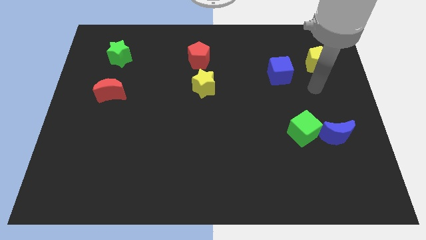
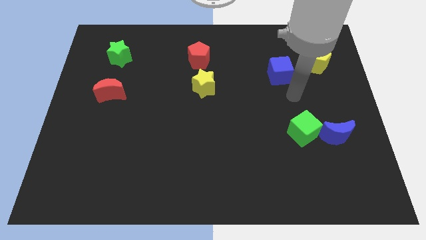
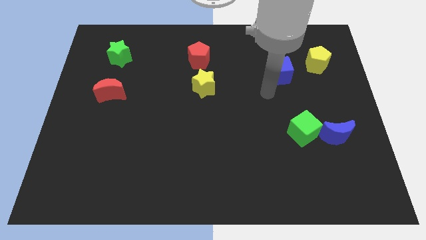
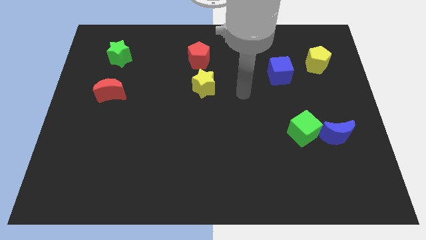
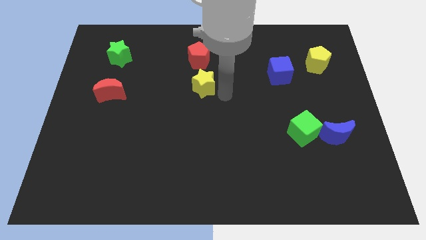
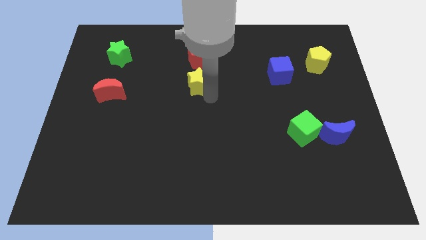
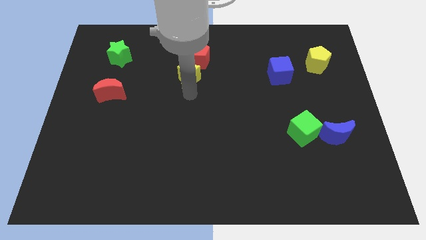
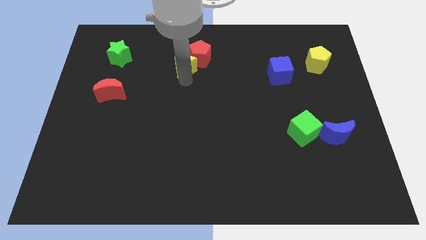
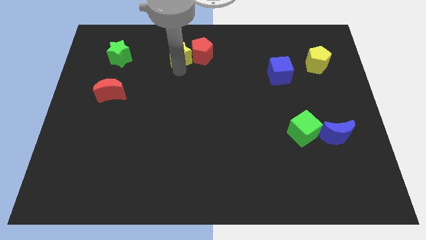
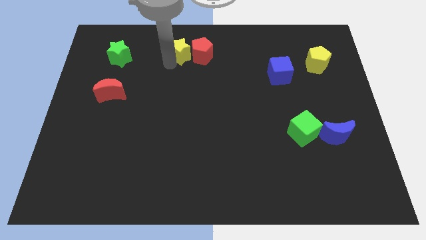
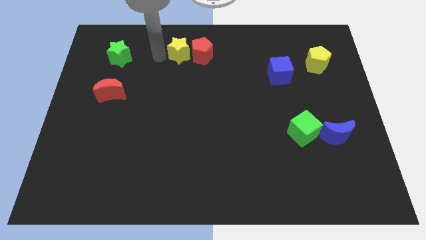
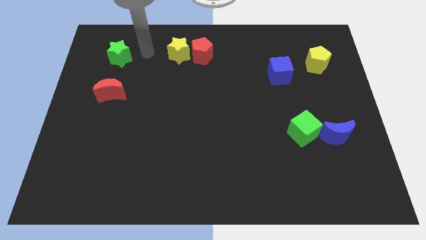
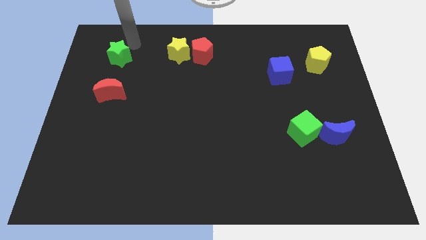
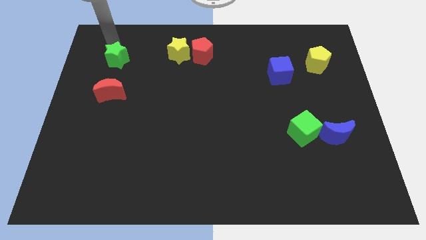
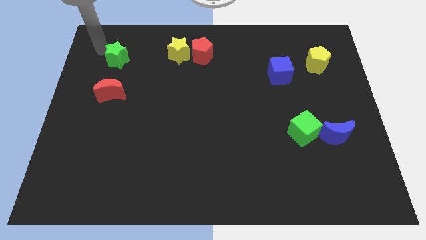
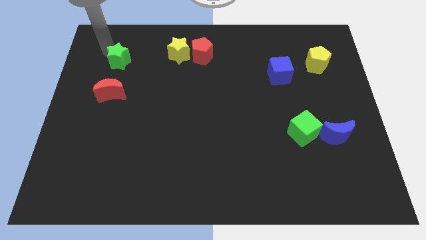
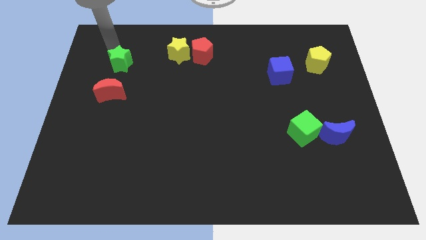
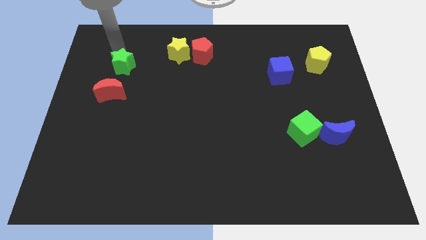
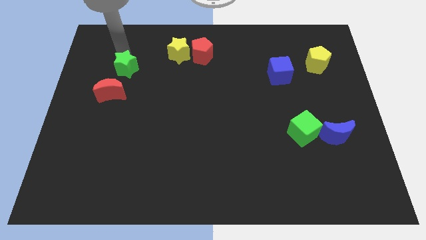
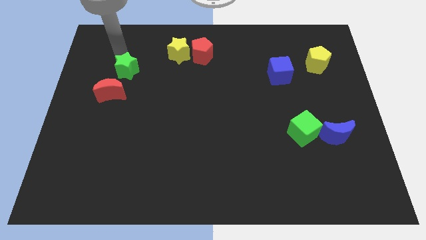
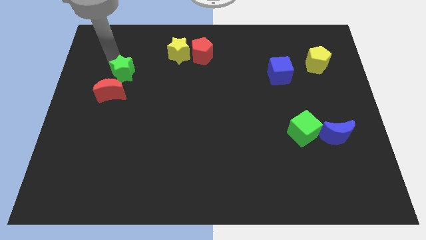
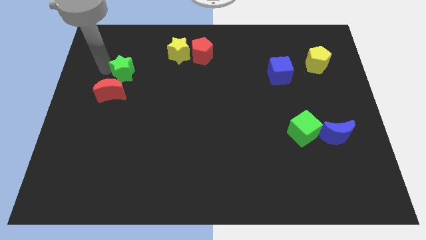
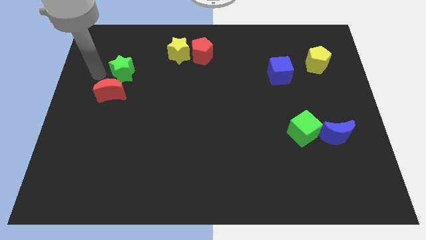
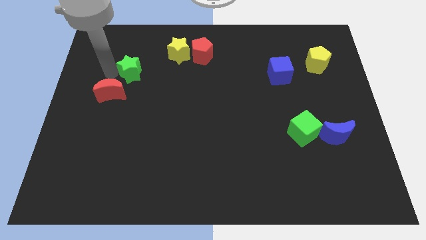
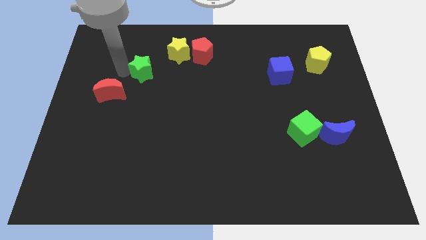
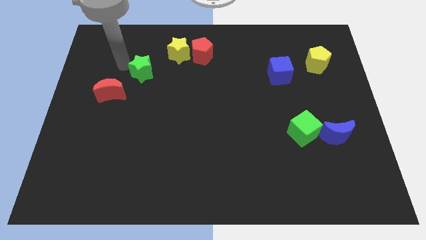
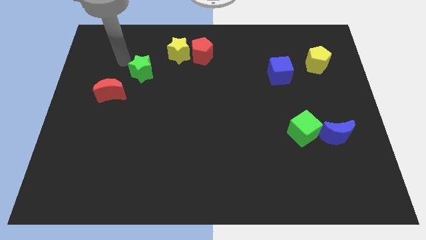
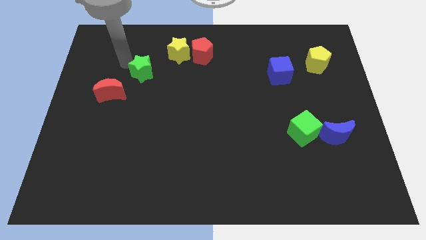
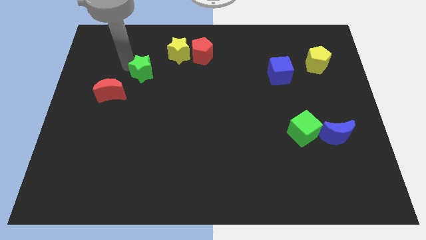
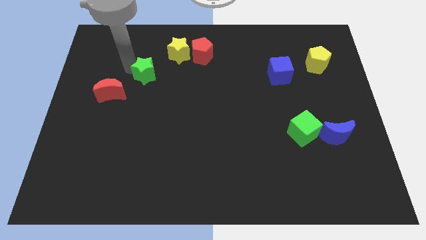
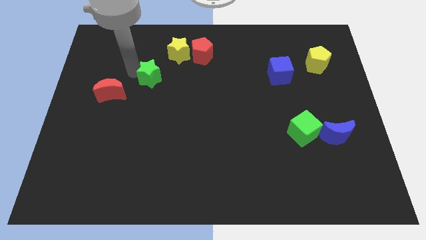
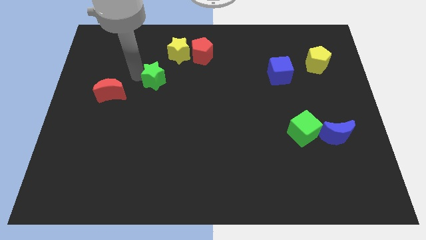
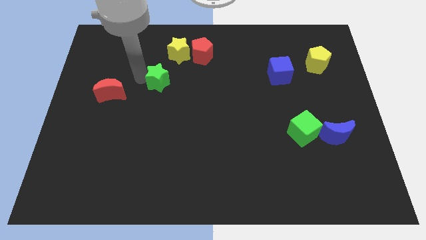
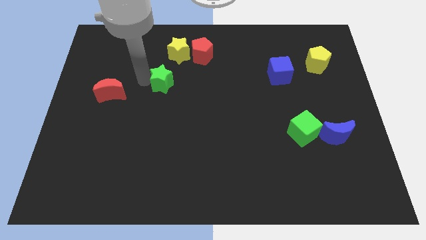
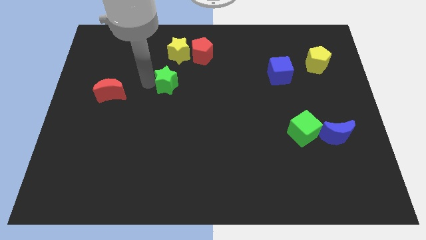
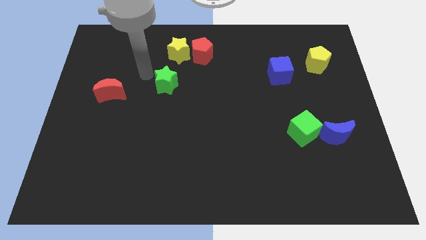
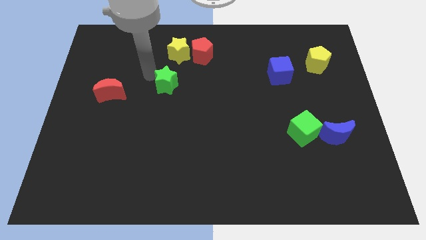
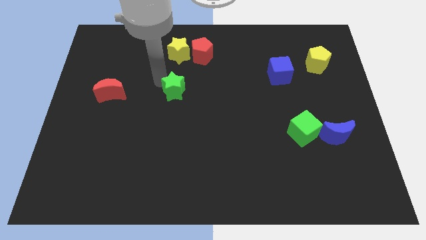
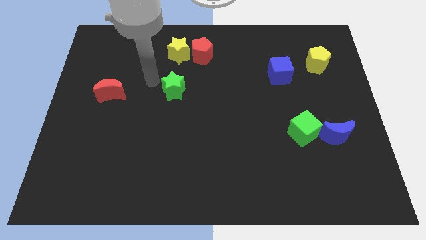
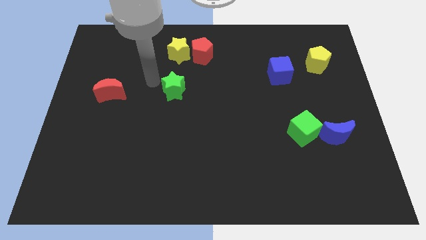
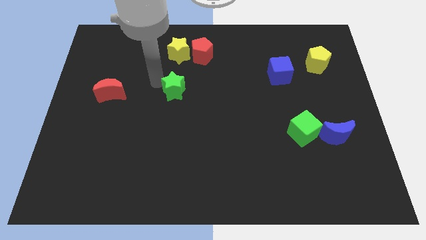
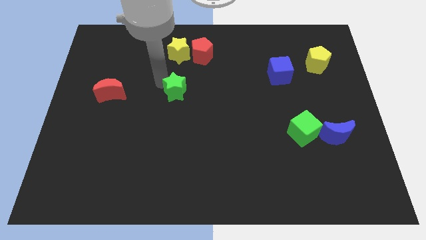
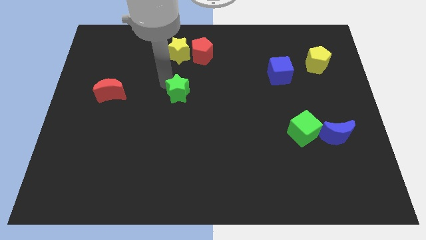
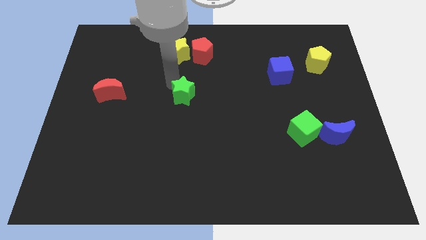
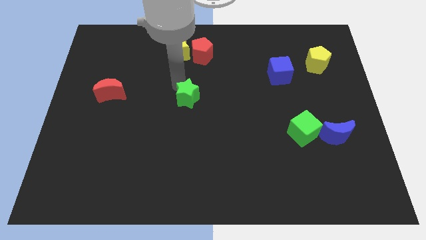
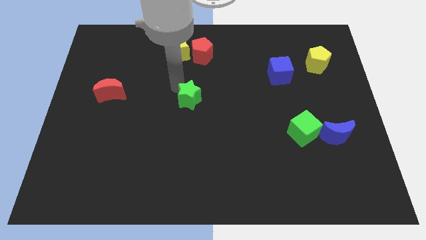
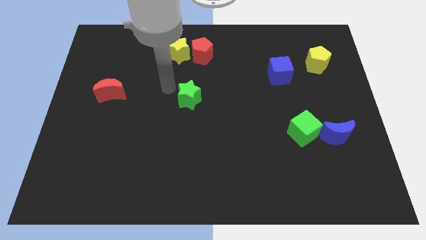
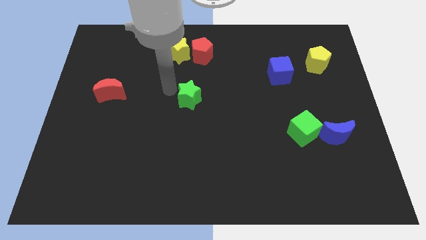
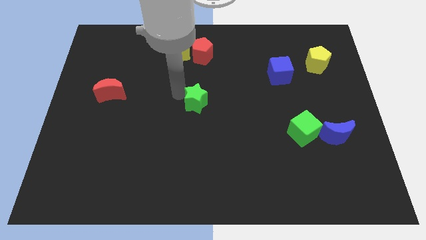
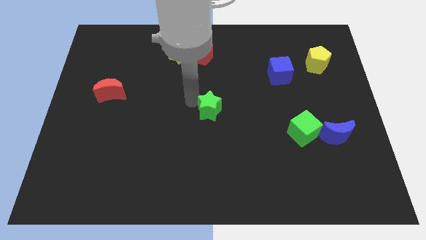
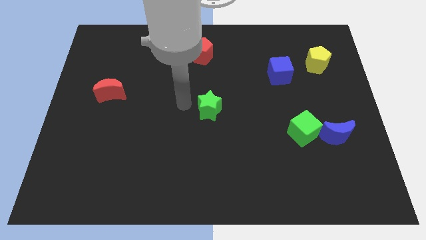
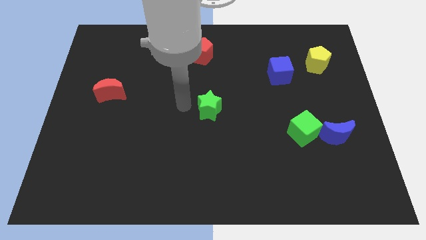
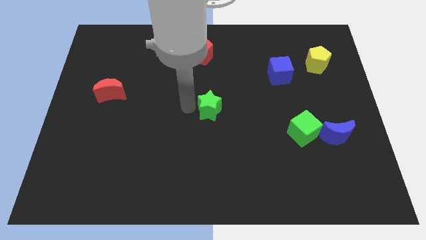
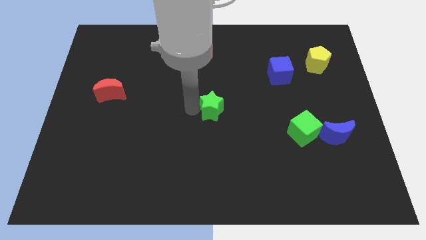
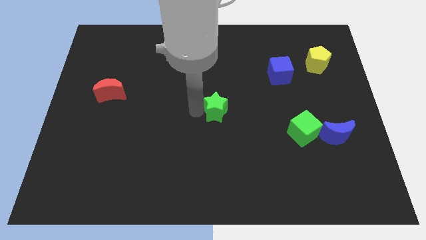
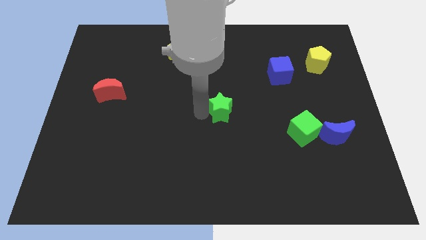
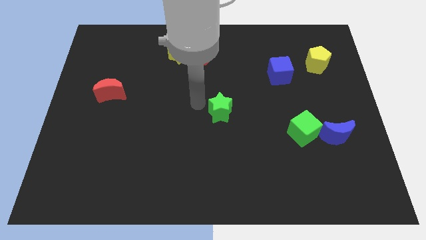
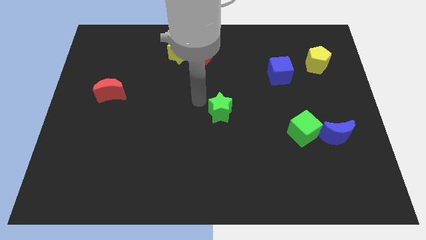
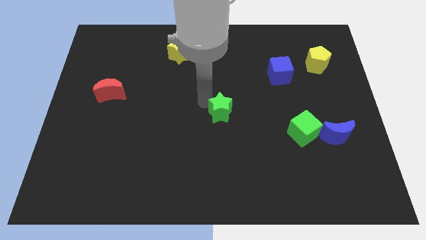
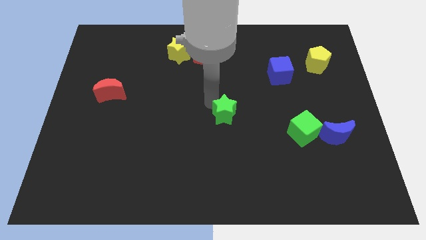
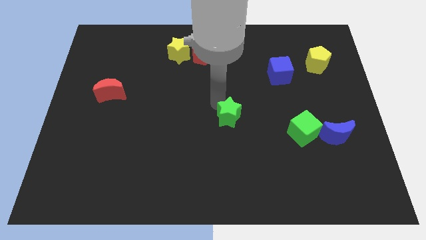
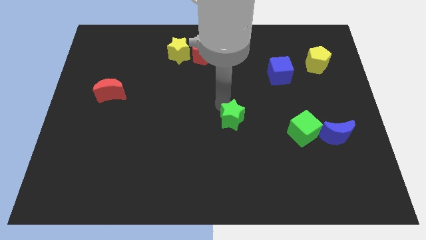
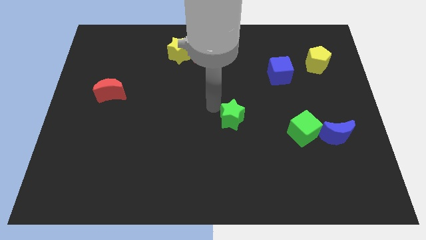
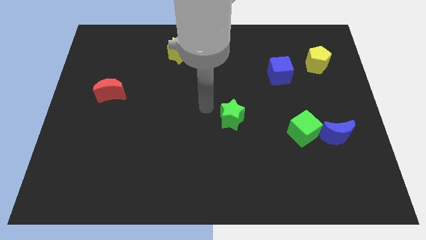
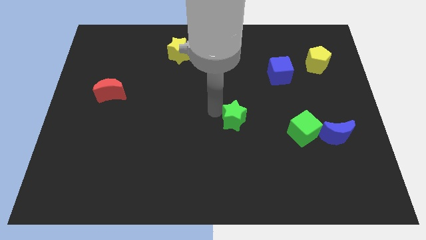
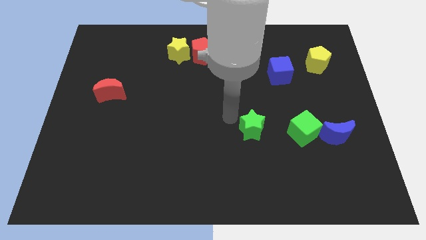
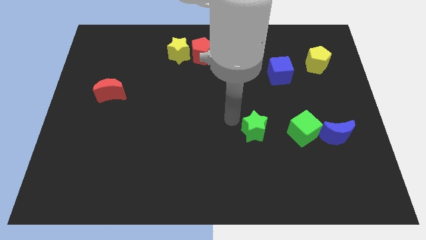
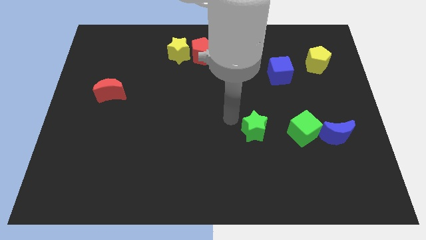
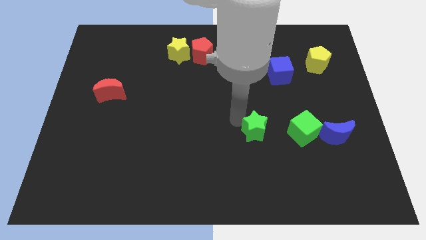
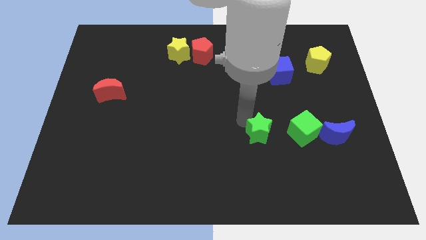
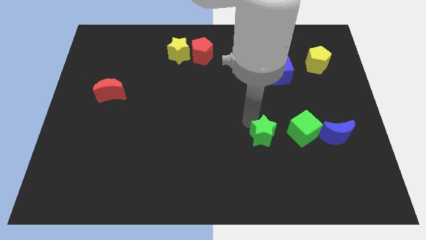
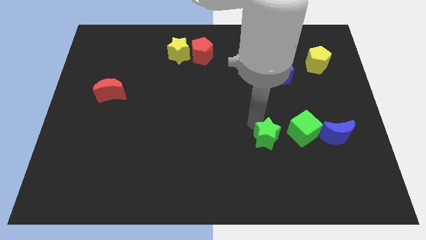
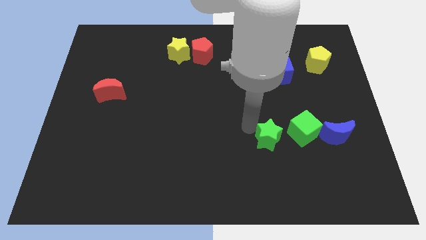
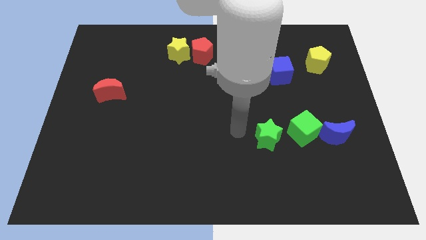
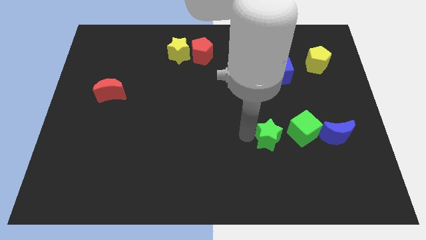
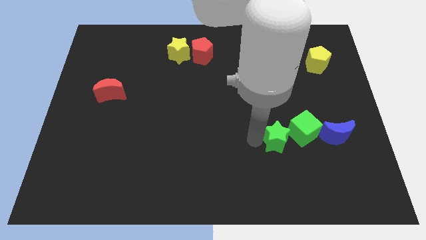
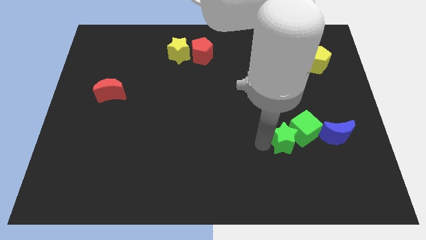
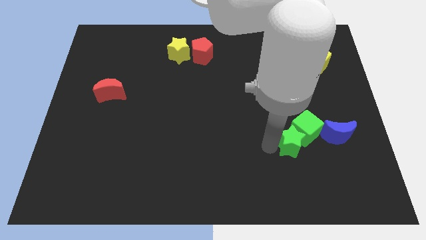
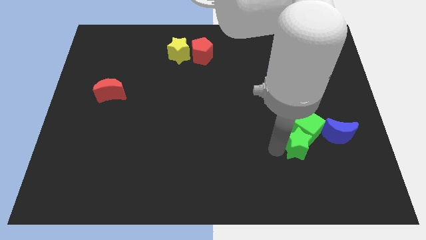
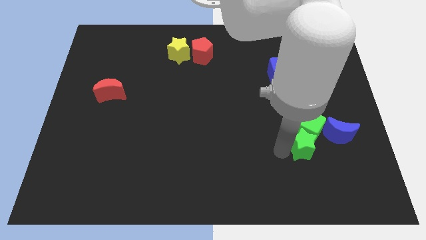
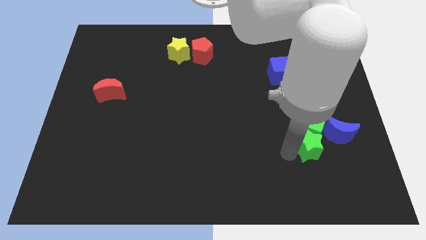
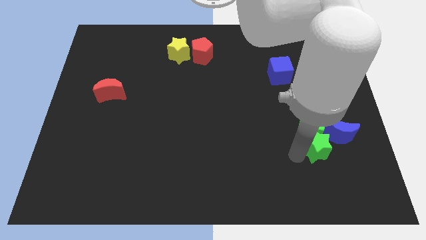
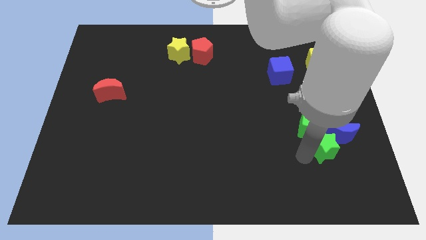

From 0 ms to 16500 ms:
put the green star next to the blue moon
